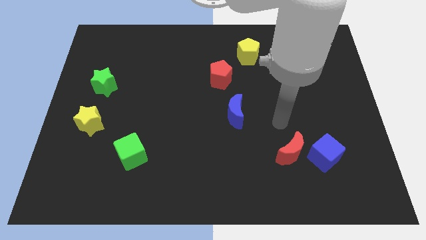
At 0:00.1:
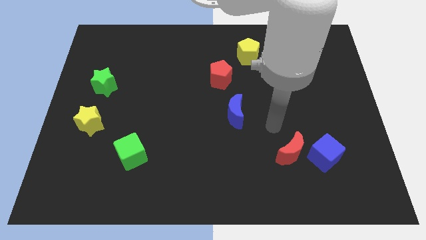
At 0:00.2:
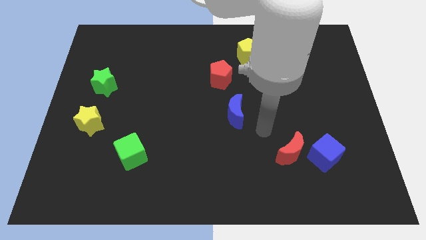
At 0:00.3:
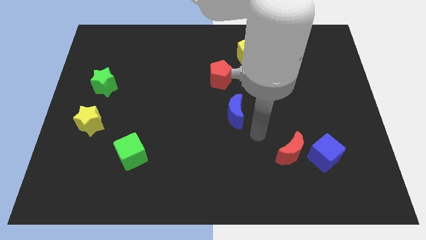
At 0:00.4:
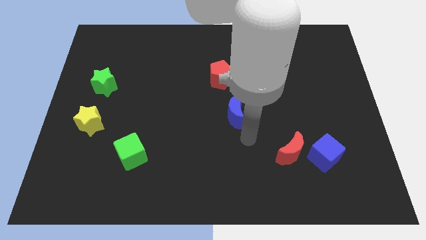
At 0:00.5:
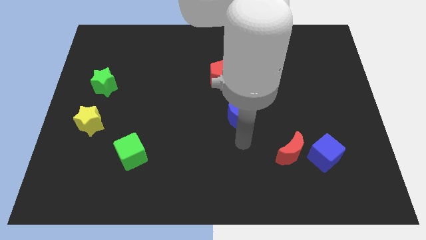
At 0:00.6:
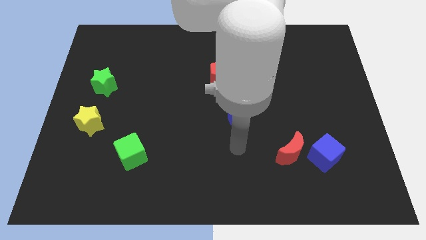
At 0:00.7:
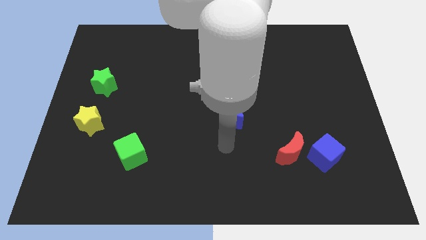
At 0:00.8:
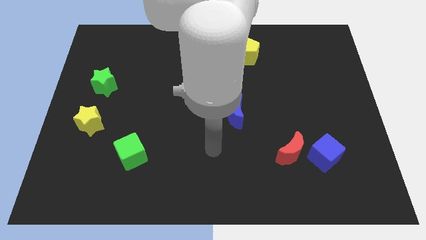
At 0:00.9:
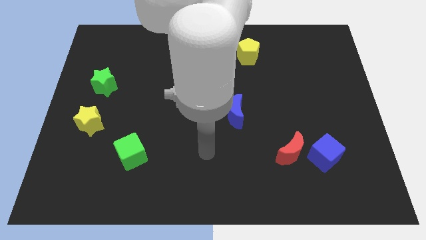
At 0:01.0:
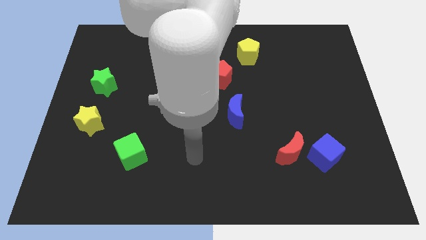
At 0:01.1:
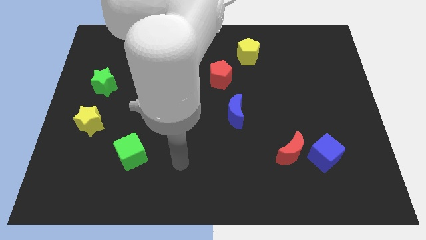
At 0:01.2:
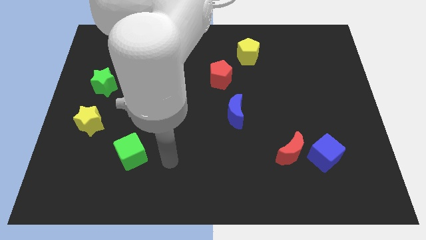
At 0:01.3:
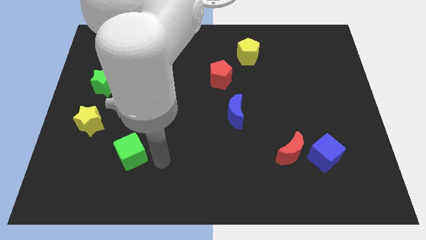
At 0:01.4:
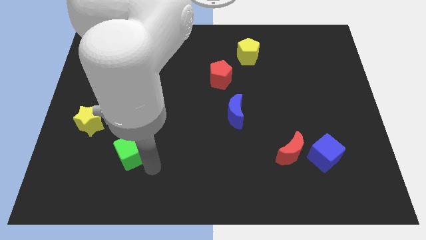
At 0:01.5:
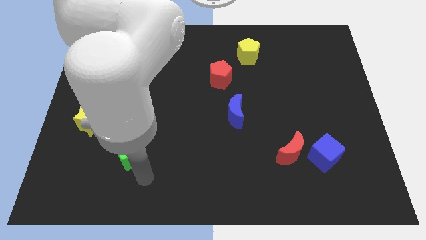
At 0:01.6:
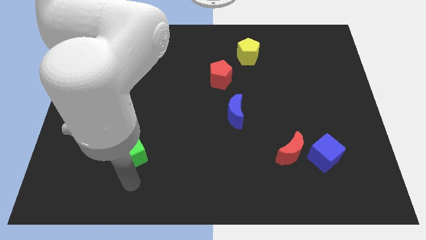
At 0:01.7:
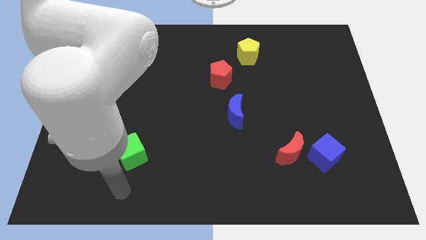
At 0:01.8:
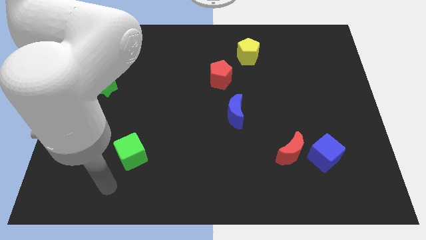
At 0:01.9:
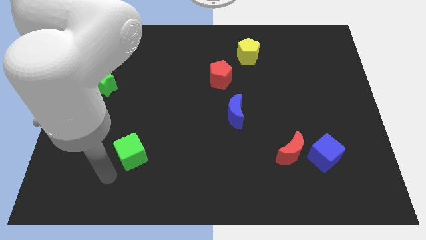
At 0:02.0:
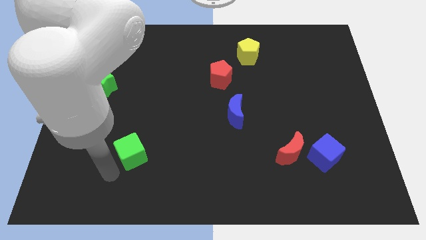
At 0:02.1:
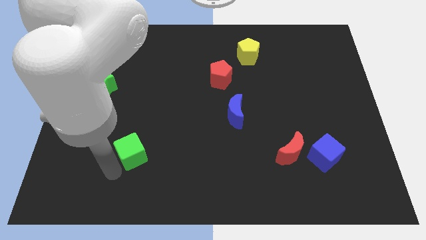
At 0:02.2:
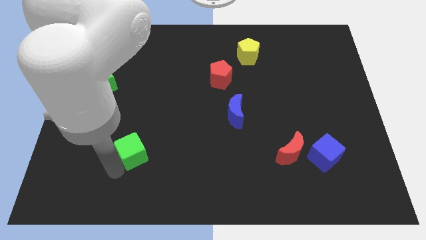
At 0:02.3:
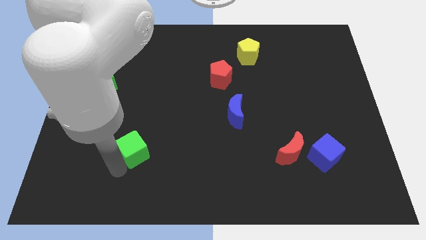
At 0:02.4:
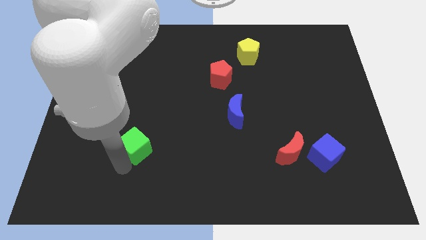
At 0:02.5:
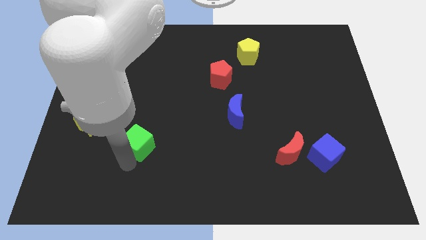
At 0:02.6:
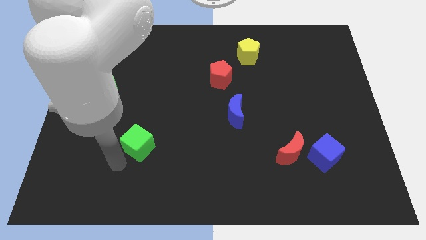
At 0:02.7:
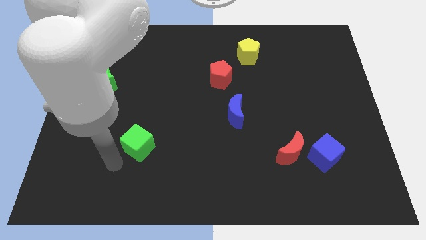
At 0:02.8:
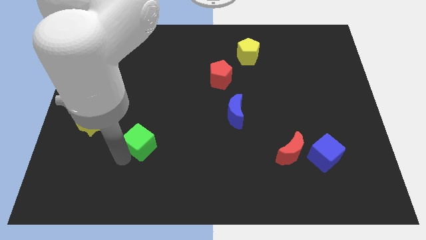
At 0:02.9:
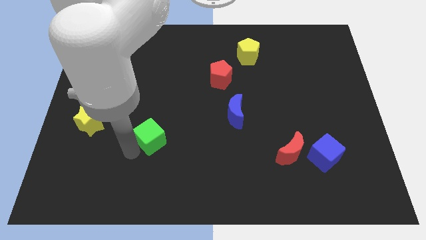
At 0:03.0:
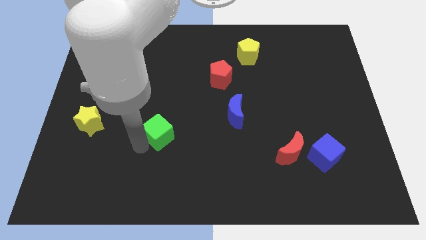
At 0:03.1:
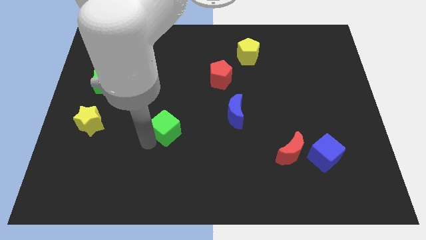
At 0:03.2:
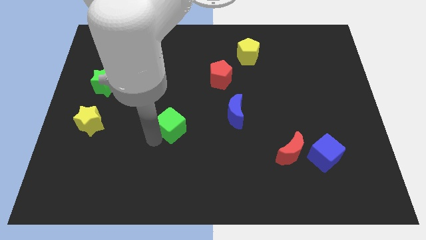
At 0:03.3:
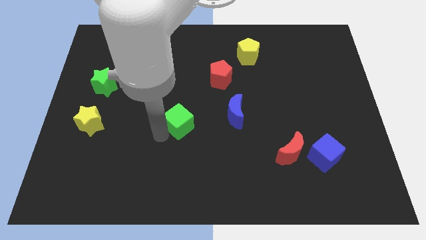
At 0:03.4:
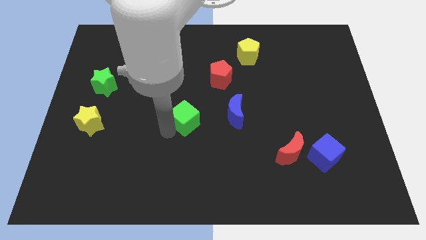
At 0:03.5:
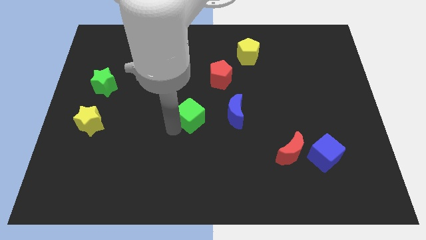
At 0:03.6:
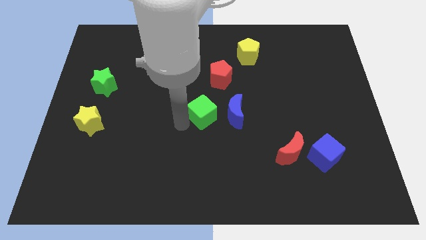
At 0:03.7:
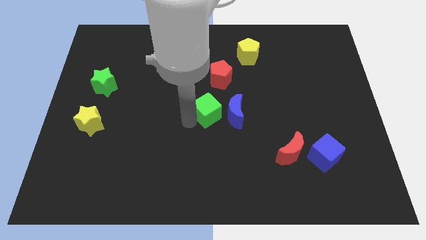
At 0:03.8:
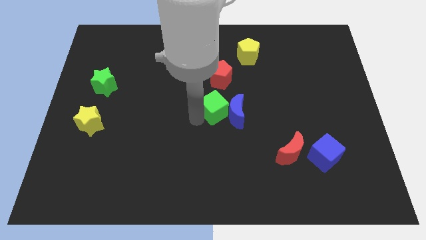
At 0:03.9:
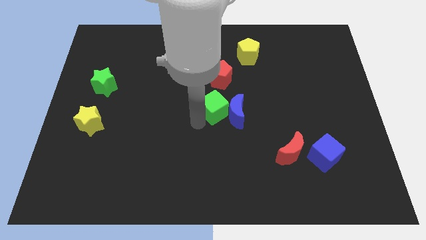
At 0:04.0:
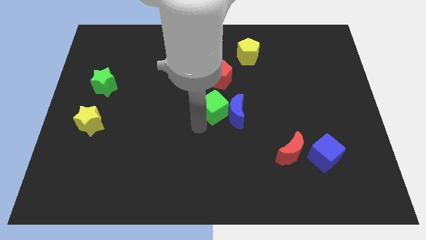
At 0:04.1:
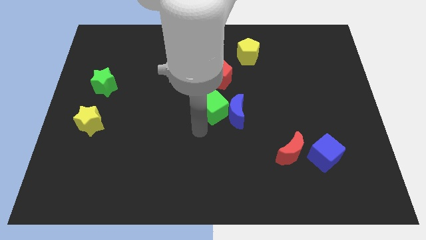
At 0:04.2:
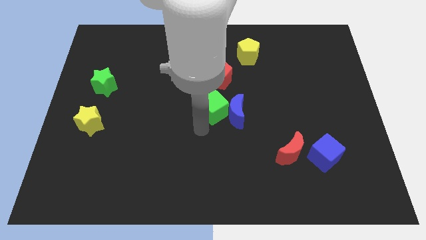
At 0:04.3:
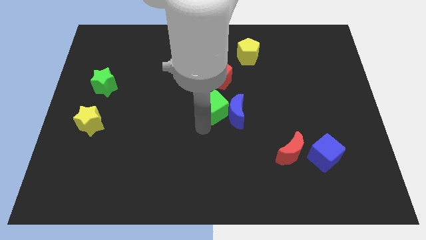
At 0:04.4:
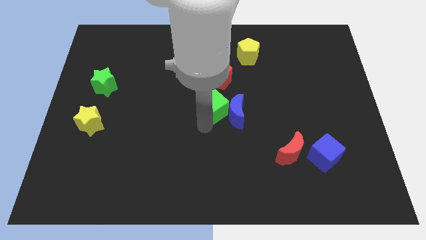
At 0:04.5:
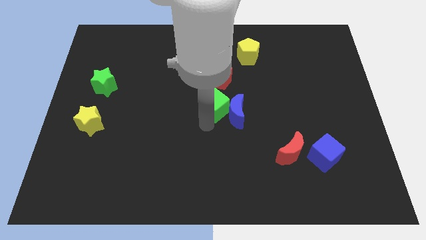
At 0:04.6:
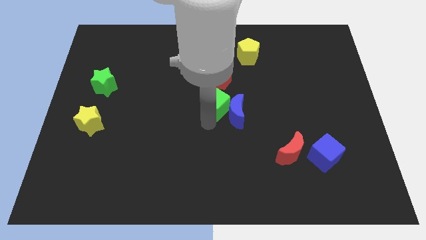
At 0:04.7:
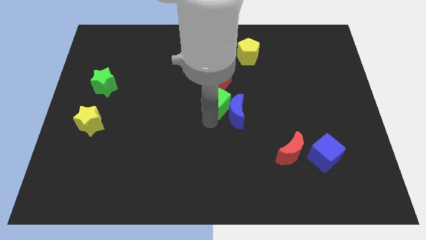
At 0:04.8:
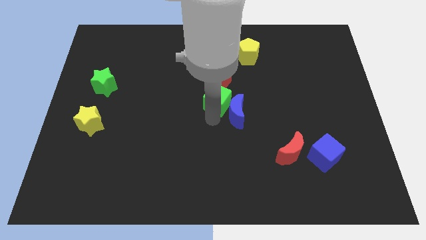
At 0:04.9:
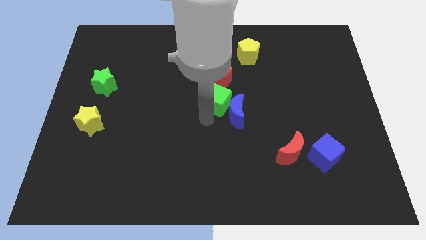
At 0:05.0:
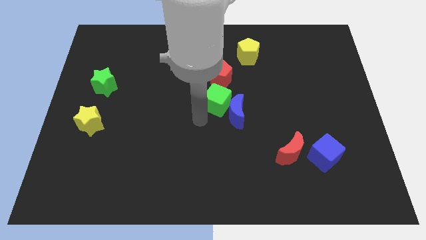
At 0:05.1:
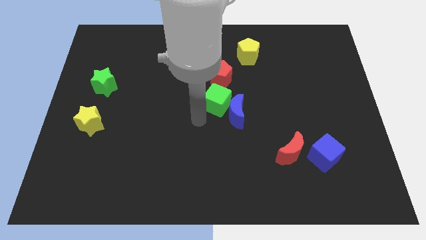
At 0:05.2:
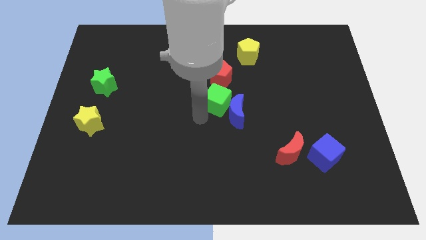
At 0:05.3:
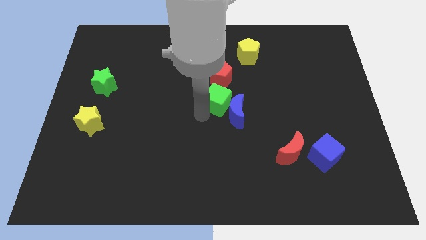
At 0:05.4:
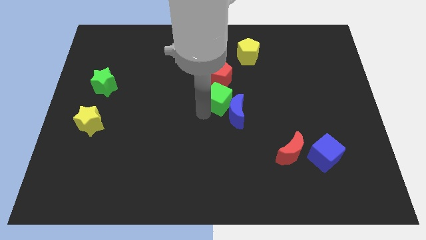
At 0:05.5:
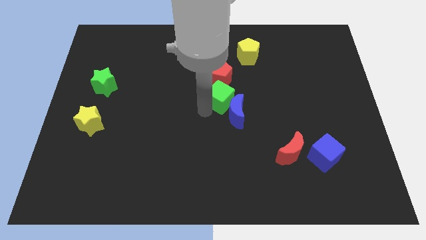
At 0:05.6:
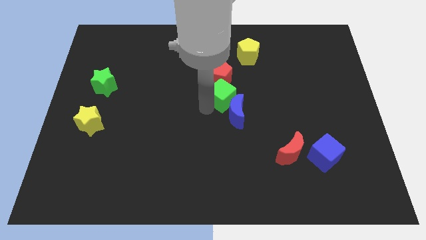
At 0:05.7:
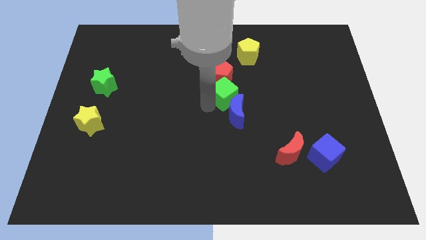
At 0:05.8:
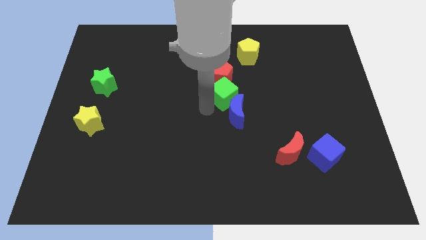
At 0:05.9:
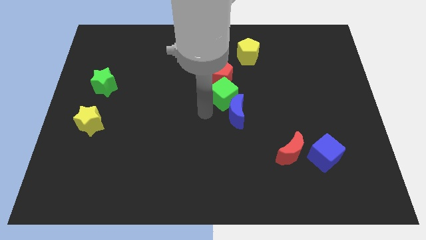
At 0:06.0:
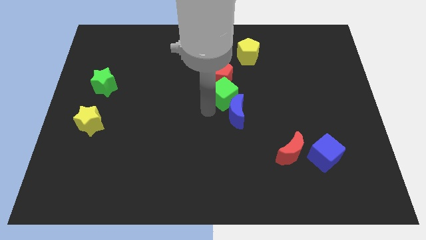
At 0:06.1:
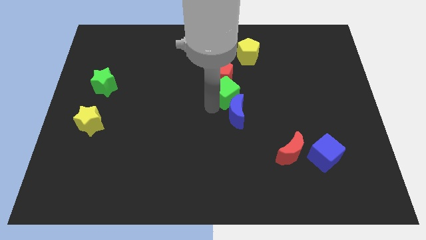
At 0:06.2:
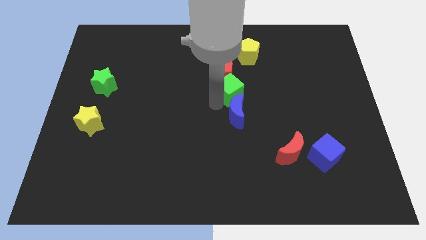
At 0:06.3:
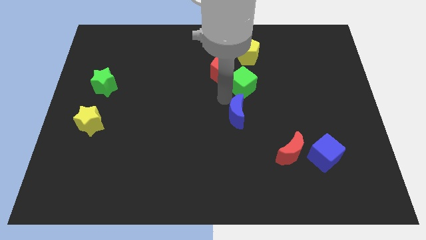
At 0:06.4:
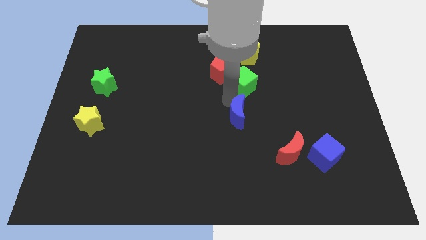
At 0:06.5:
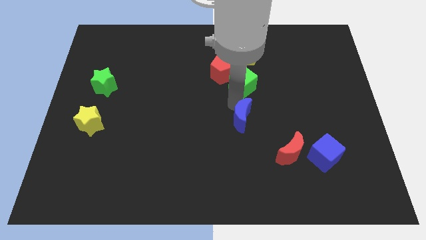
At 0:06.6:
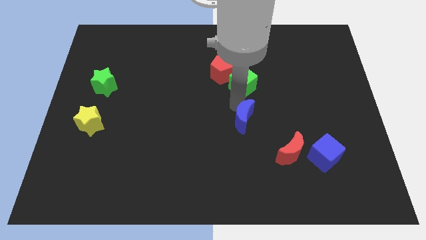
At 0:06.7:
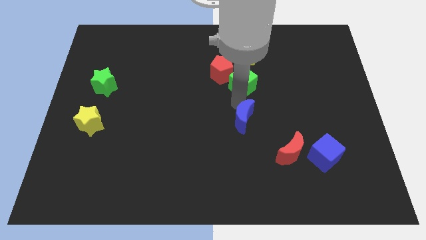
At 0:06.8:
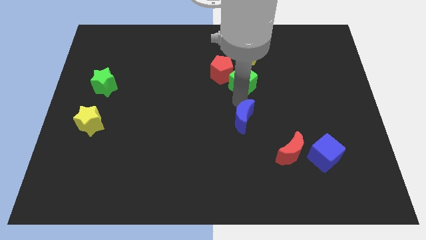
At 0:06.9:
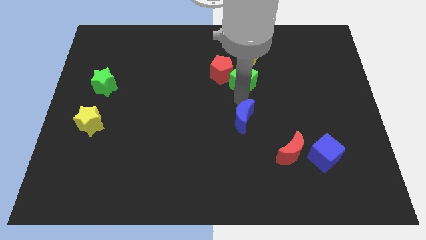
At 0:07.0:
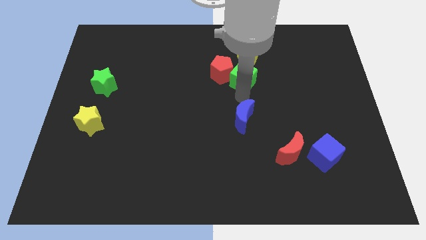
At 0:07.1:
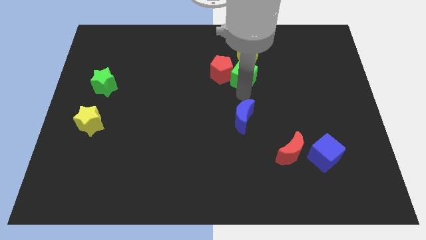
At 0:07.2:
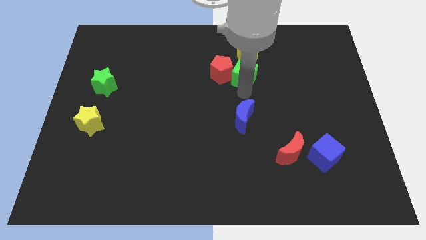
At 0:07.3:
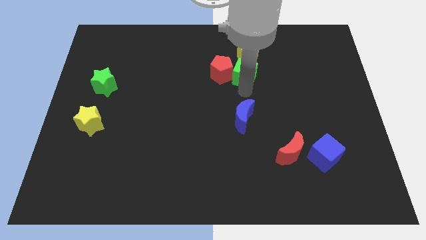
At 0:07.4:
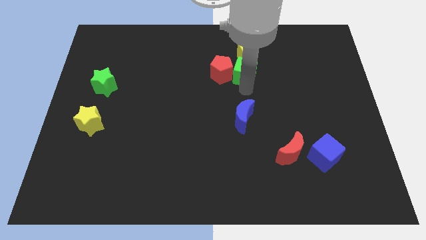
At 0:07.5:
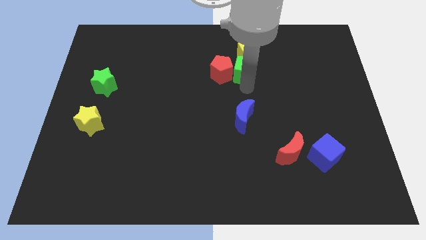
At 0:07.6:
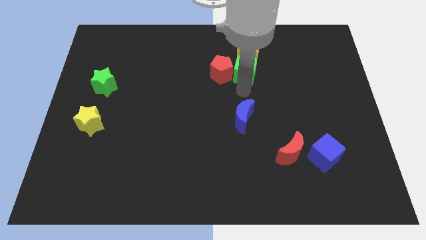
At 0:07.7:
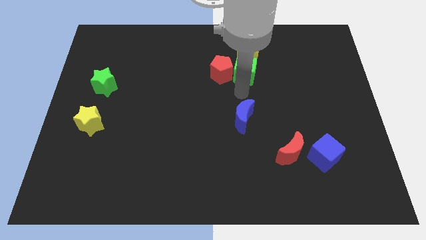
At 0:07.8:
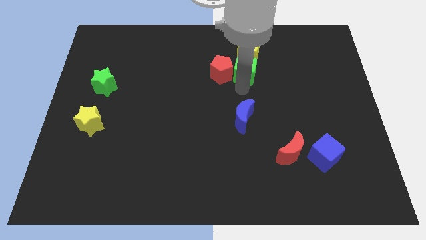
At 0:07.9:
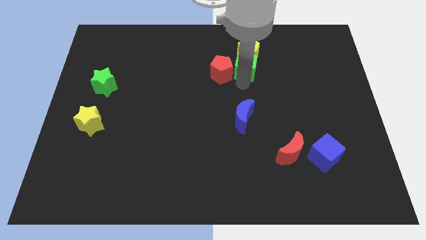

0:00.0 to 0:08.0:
move the green cube towards the yellow pentagon
